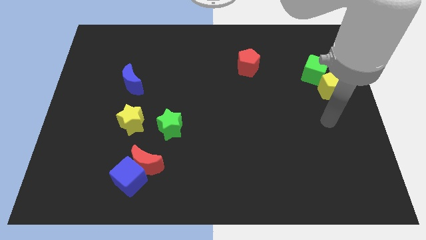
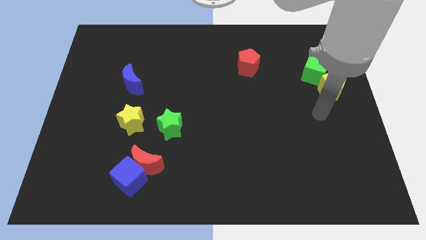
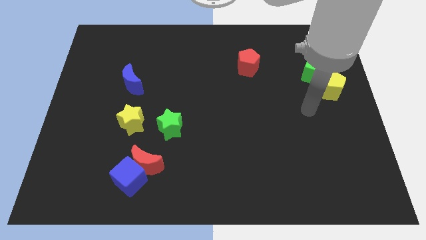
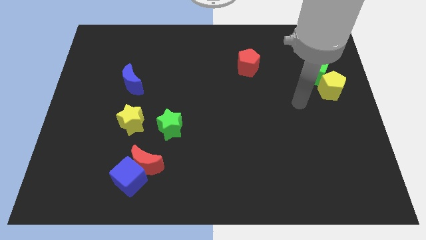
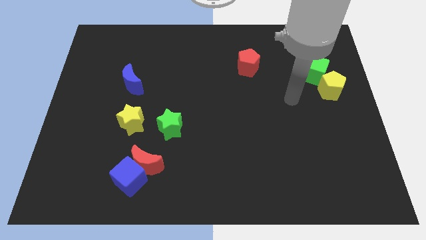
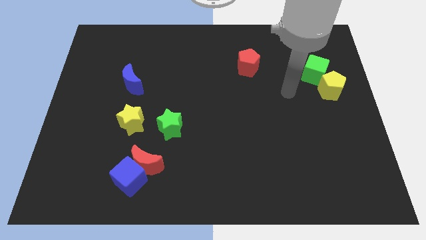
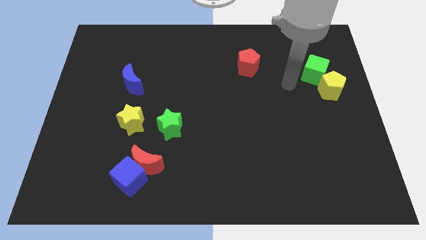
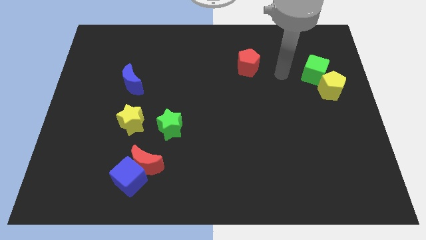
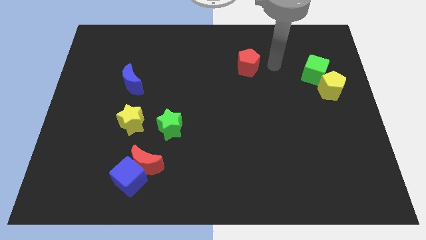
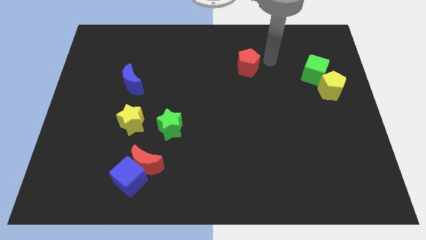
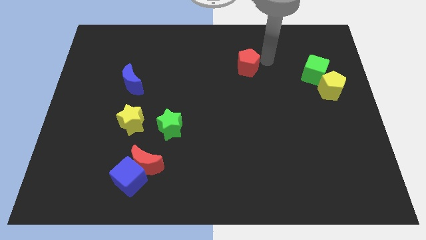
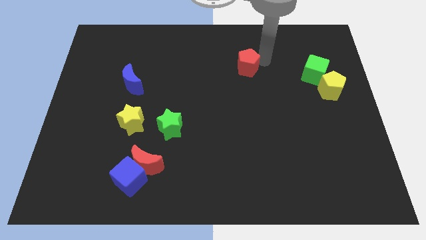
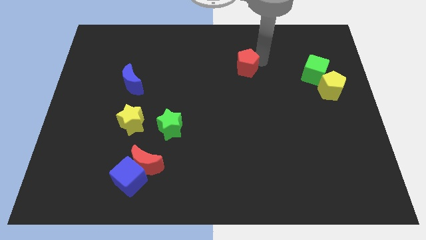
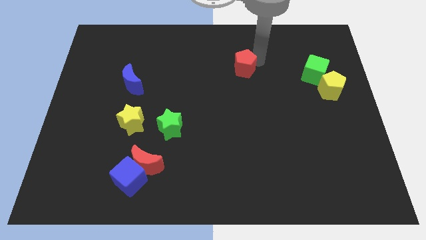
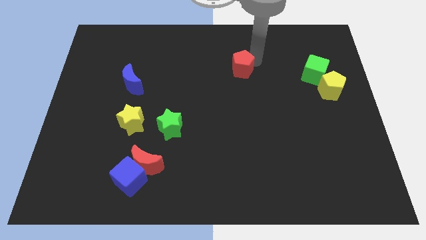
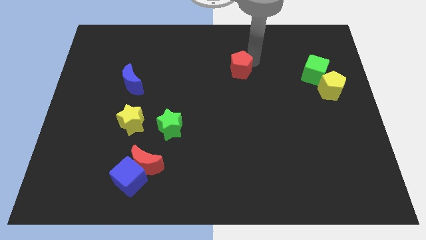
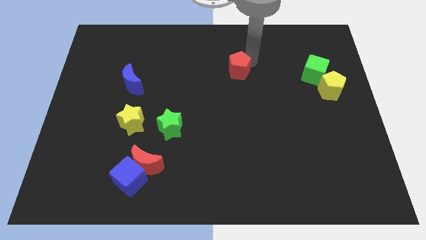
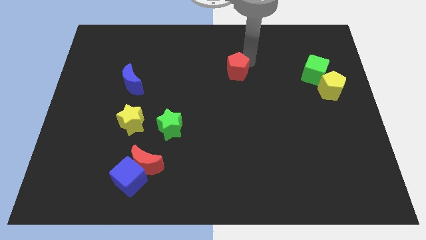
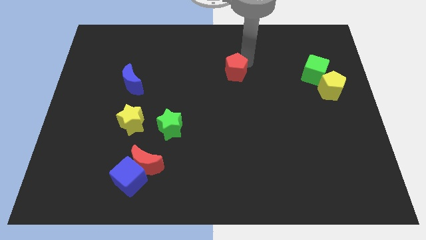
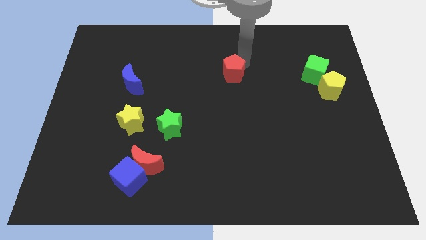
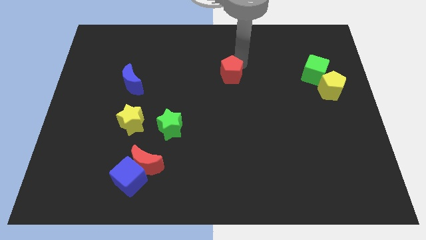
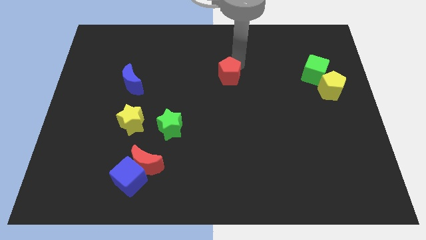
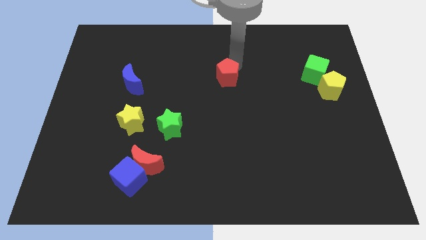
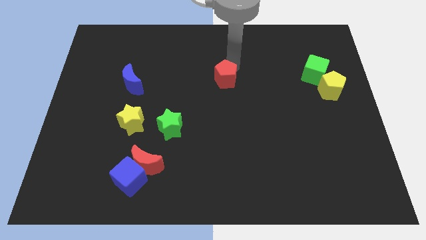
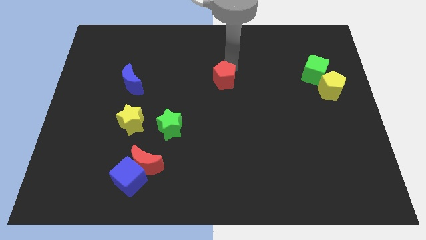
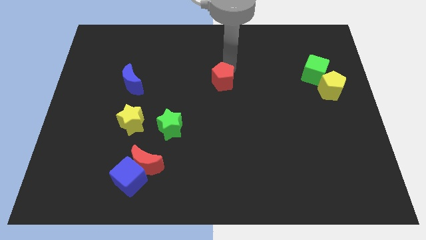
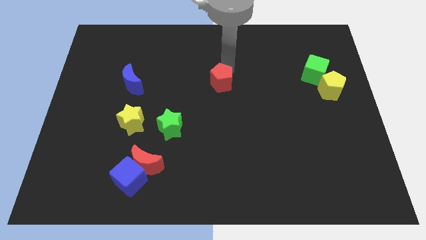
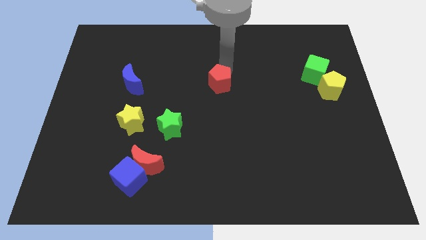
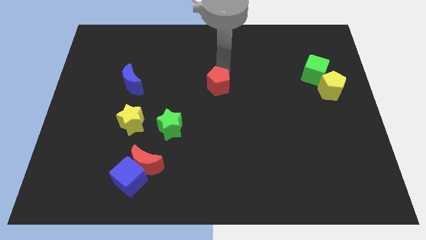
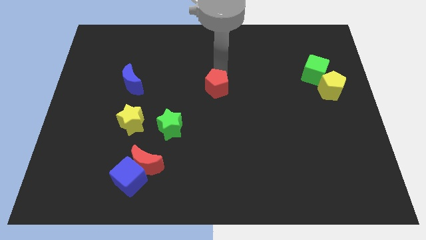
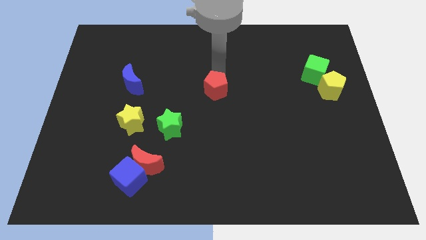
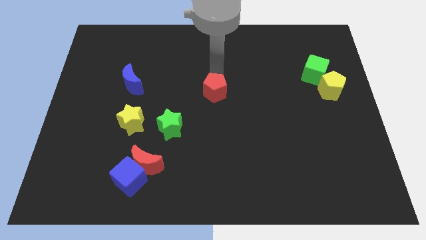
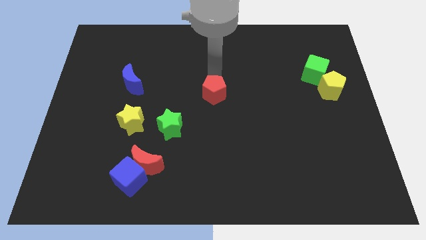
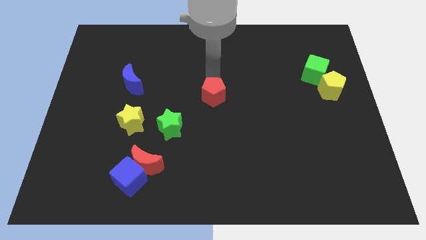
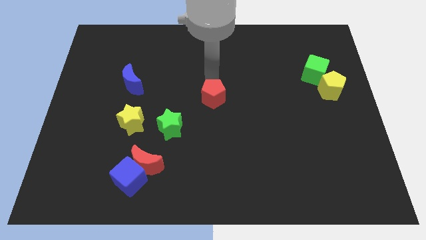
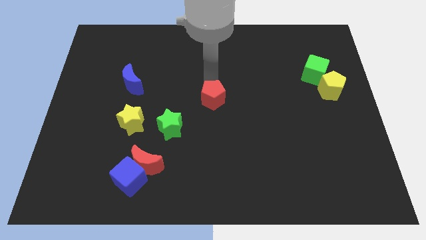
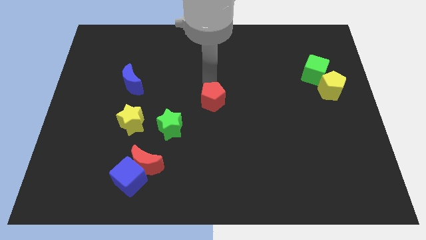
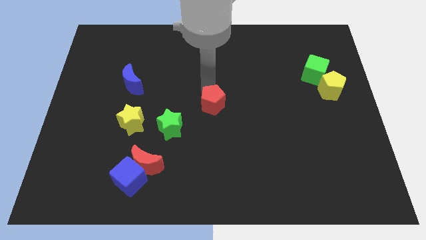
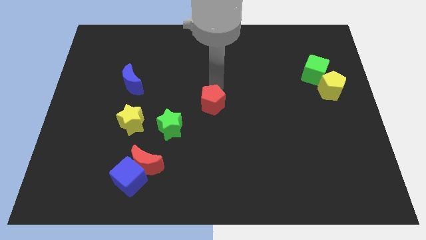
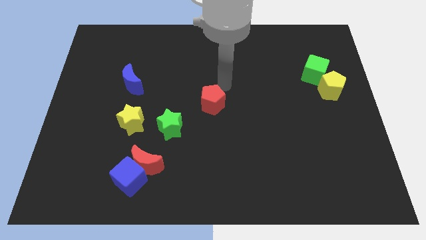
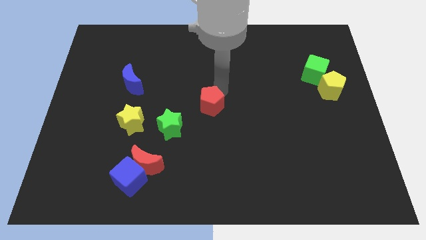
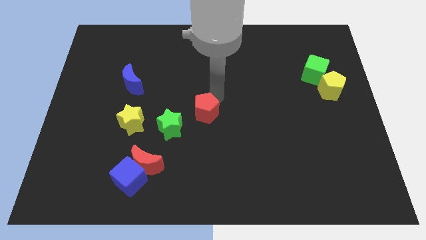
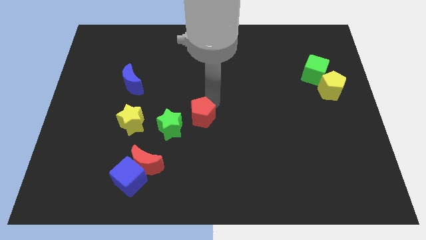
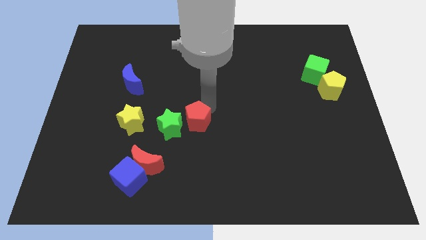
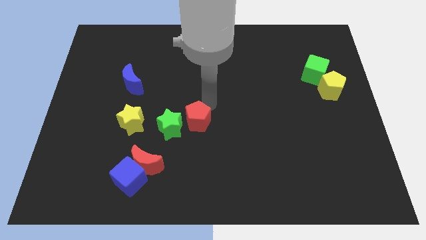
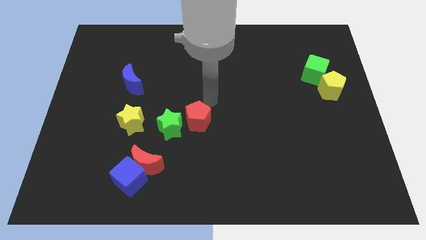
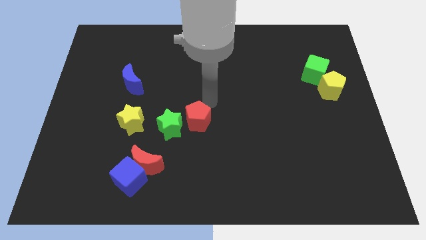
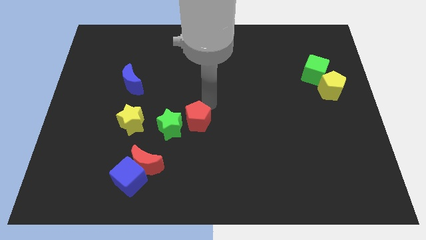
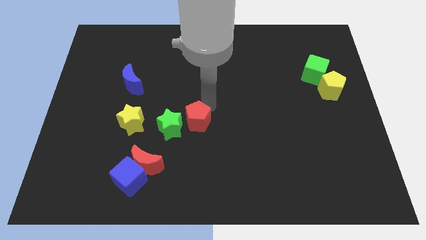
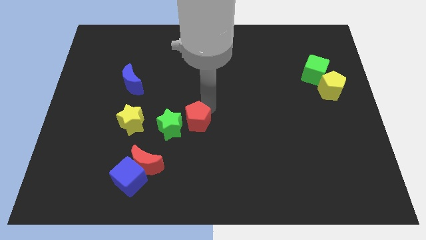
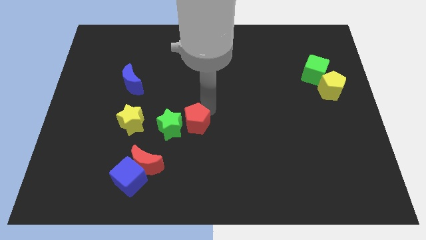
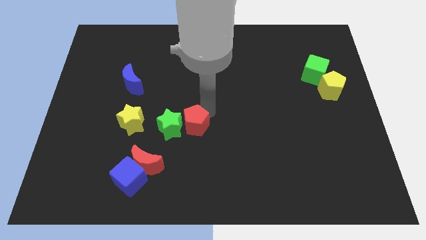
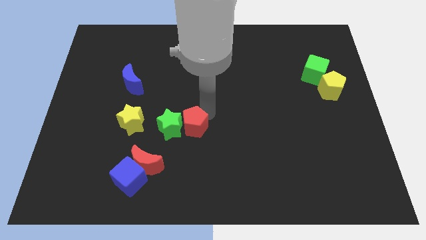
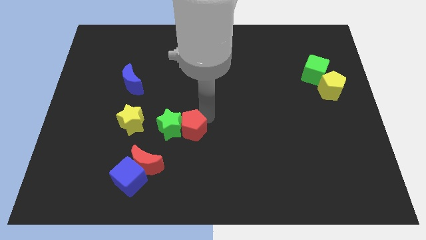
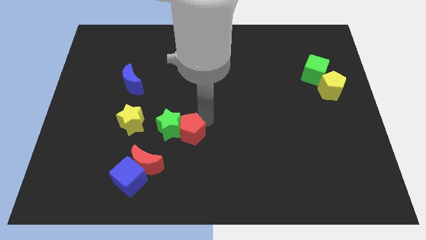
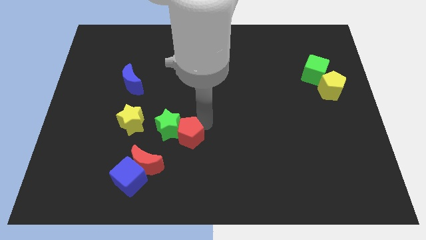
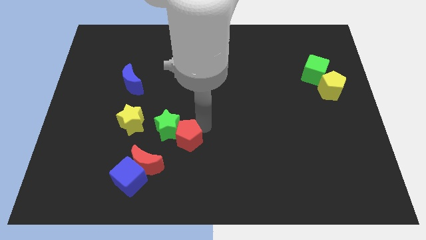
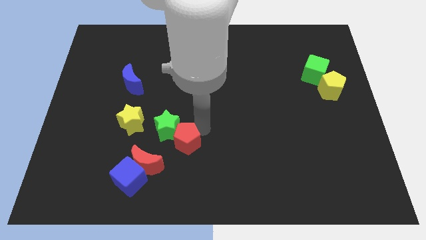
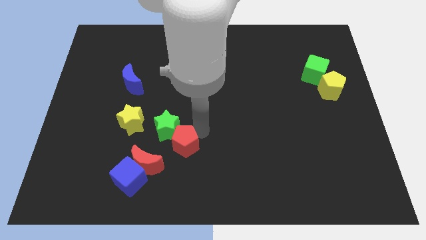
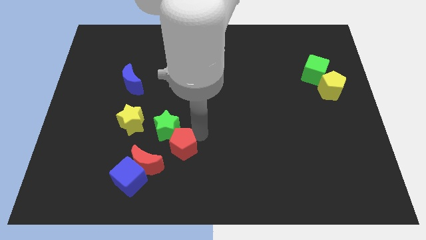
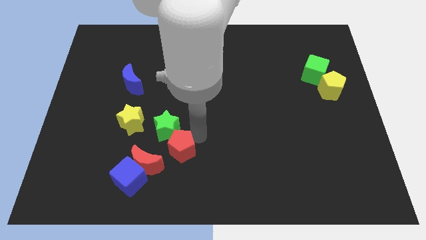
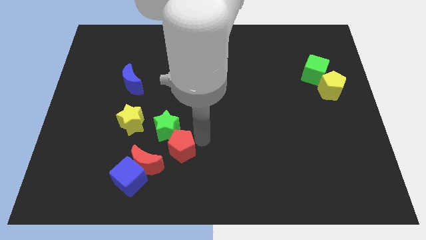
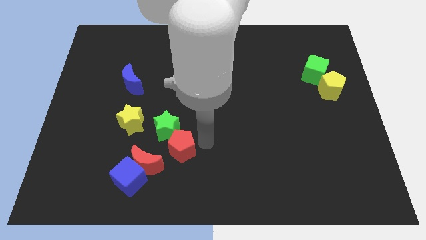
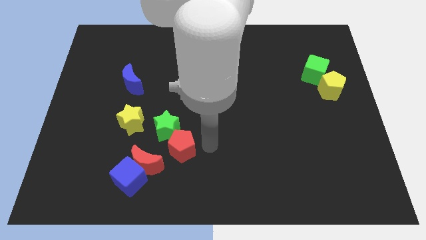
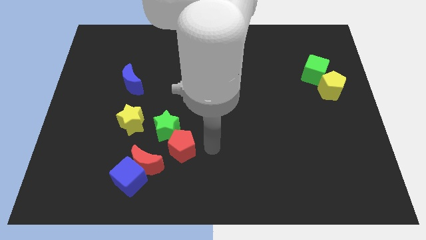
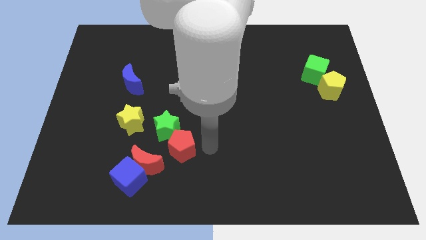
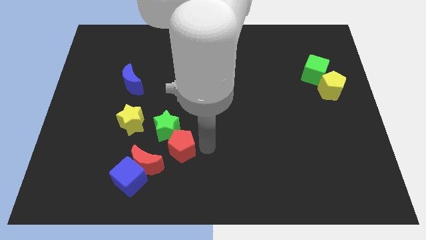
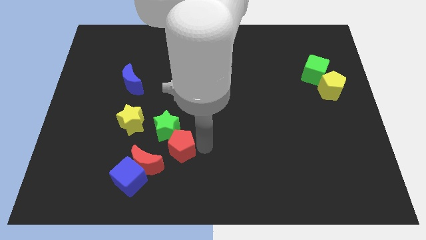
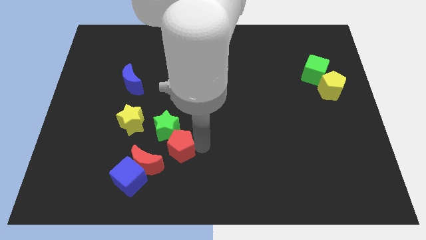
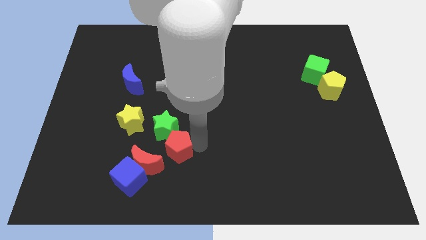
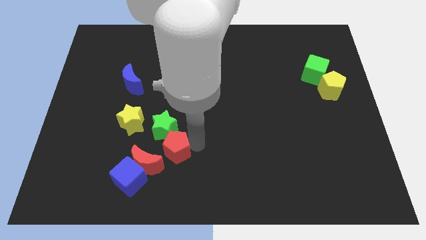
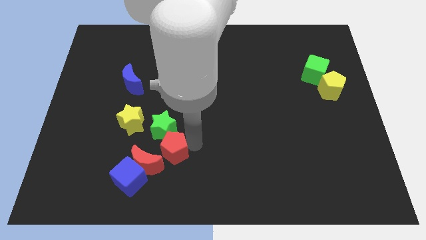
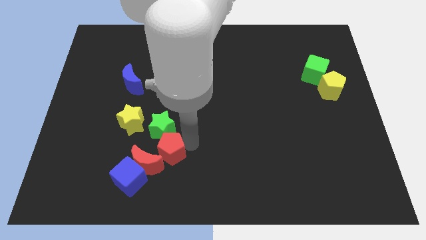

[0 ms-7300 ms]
move the red pentagon close to the red moon
